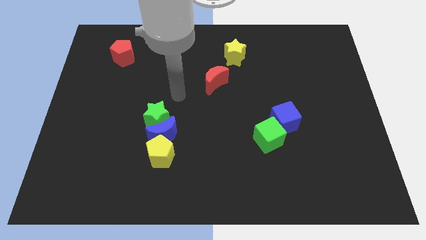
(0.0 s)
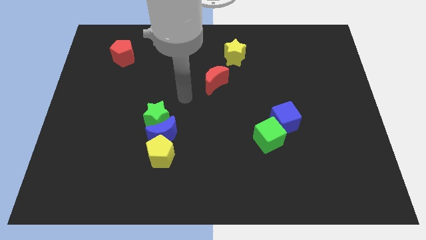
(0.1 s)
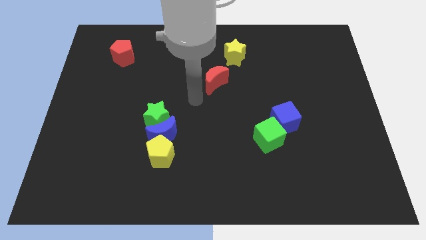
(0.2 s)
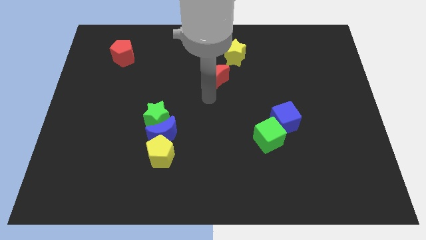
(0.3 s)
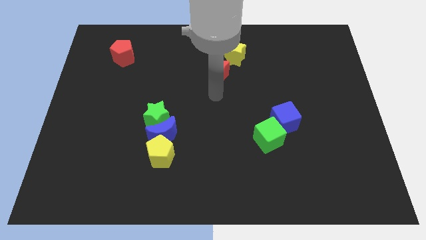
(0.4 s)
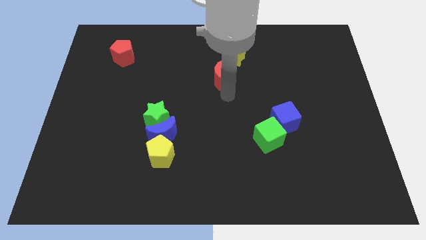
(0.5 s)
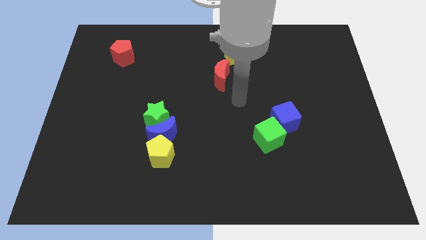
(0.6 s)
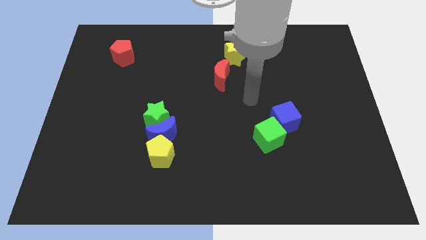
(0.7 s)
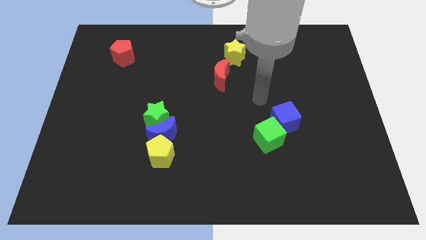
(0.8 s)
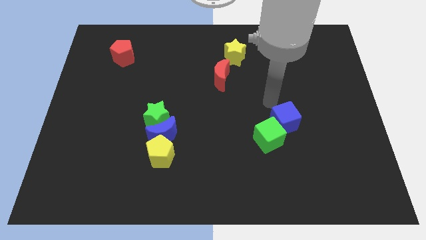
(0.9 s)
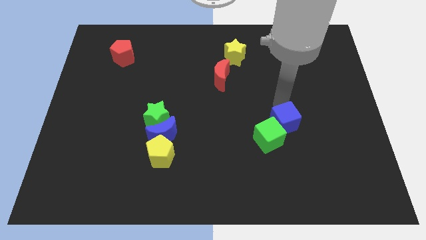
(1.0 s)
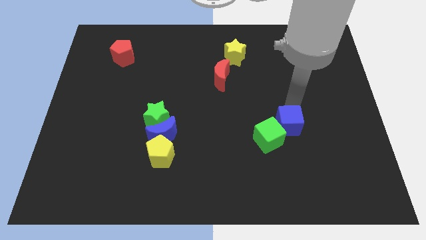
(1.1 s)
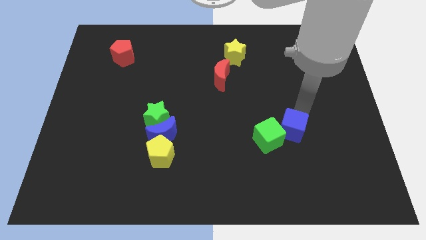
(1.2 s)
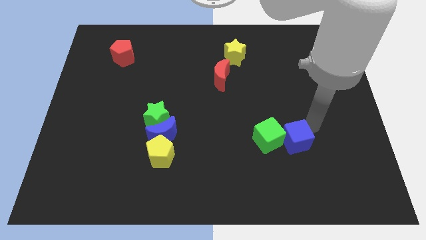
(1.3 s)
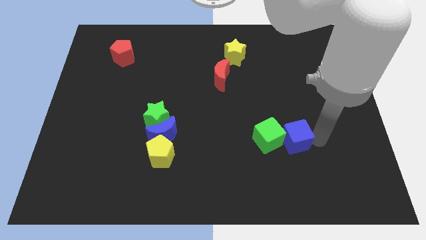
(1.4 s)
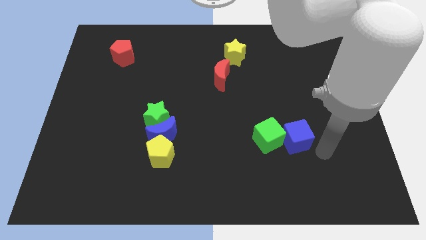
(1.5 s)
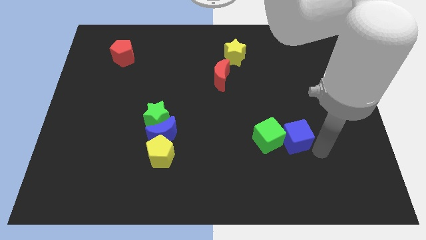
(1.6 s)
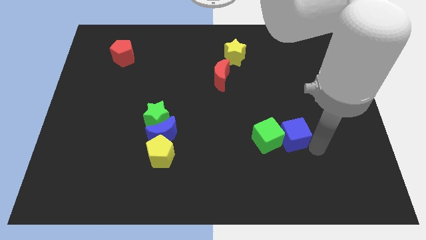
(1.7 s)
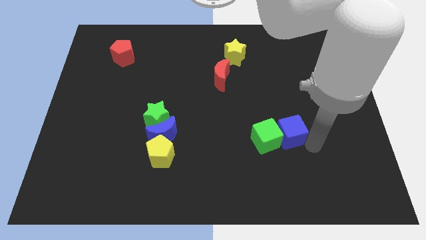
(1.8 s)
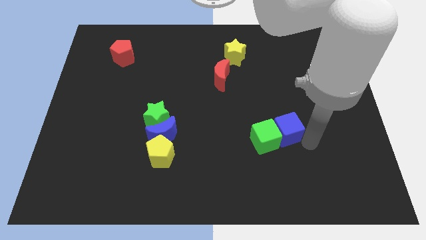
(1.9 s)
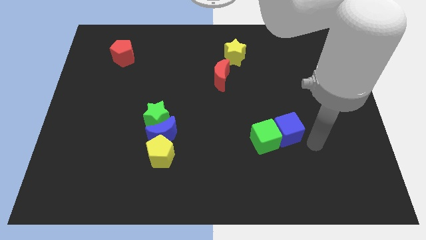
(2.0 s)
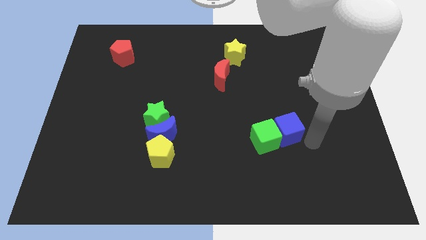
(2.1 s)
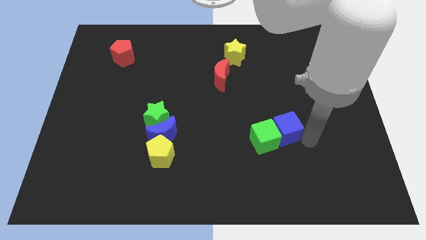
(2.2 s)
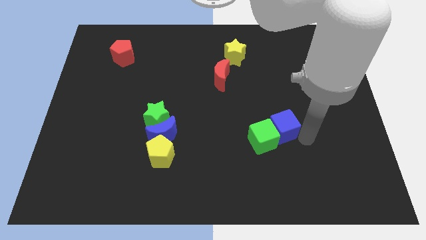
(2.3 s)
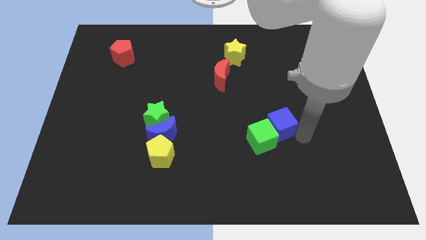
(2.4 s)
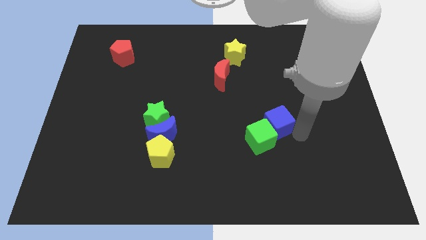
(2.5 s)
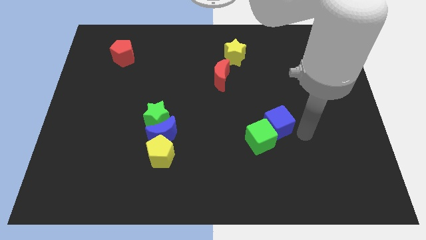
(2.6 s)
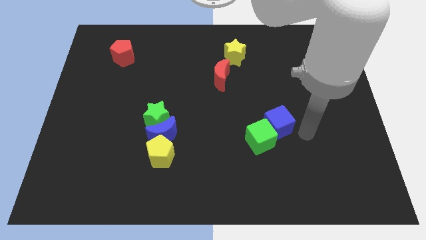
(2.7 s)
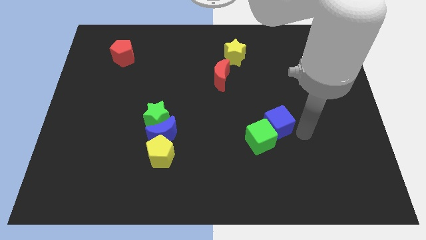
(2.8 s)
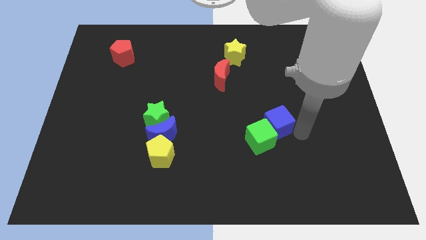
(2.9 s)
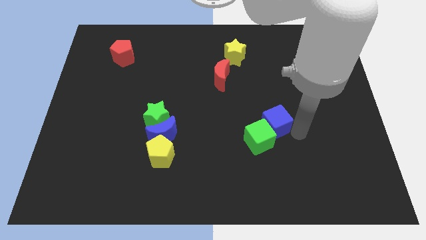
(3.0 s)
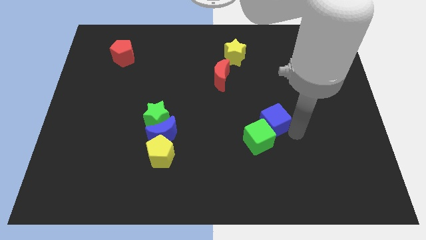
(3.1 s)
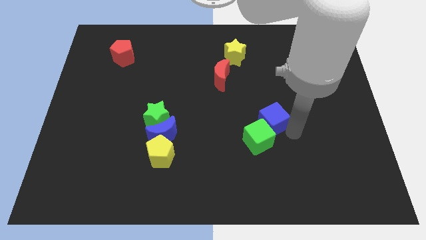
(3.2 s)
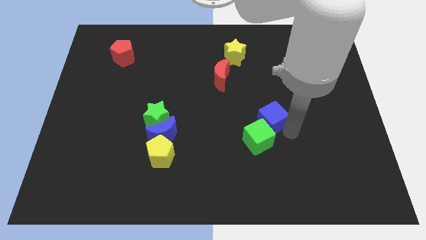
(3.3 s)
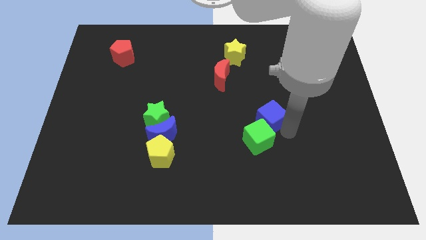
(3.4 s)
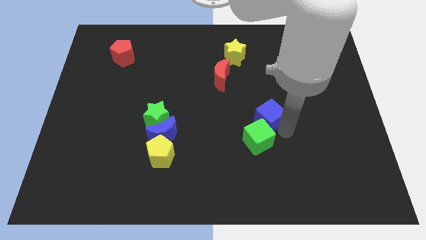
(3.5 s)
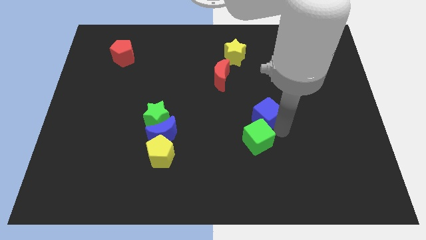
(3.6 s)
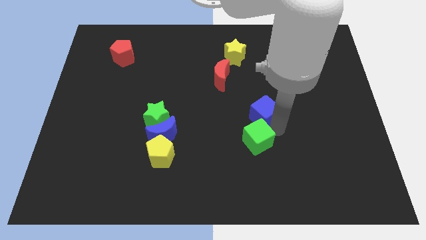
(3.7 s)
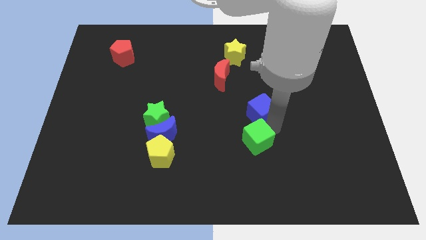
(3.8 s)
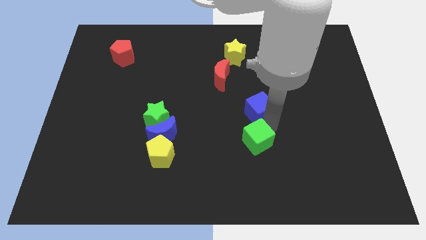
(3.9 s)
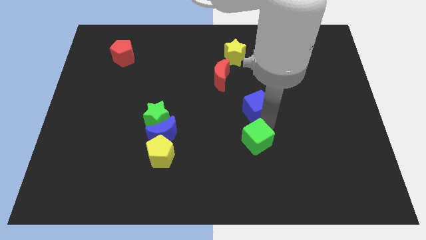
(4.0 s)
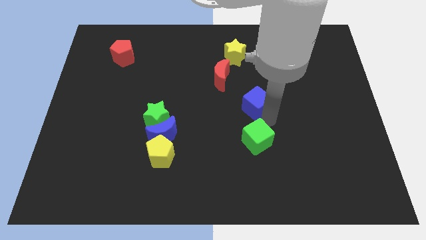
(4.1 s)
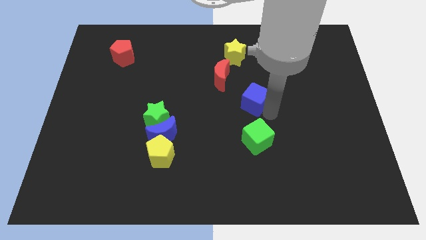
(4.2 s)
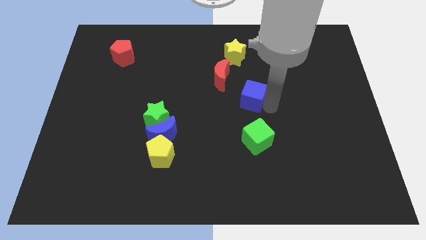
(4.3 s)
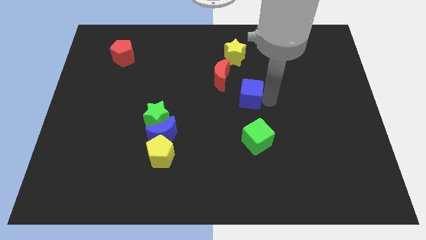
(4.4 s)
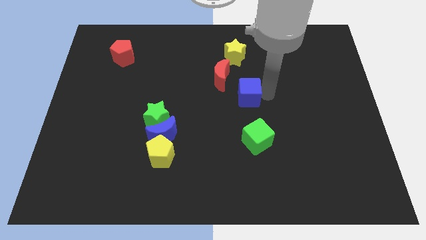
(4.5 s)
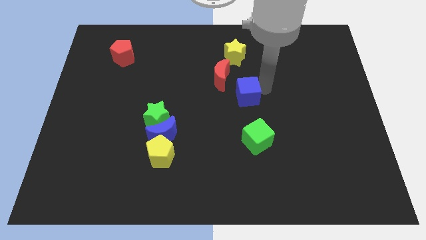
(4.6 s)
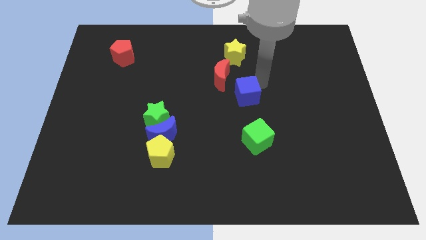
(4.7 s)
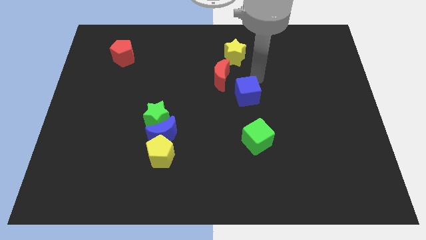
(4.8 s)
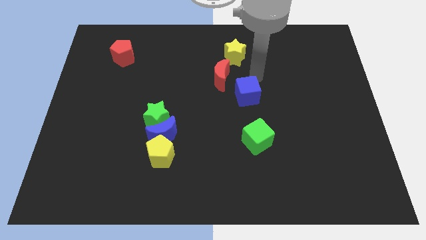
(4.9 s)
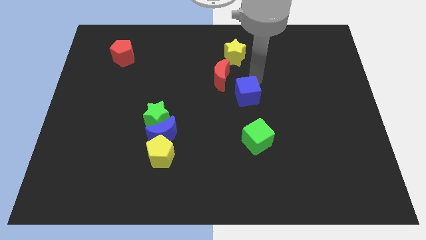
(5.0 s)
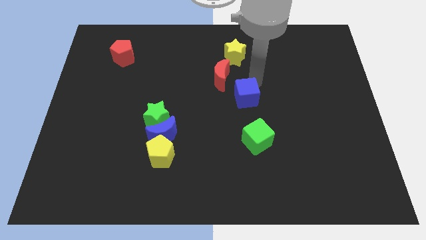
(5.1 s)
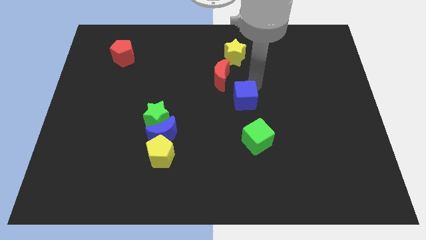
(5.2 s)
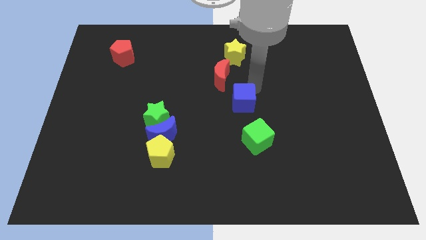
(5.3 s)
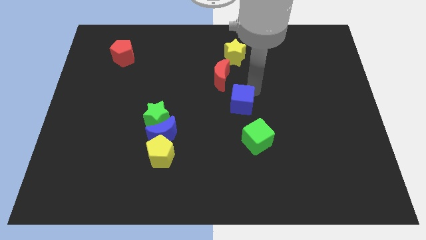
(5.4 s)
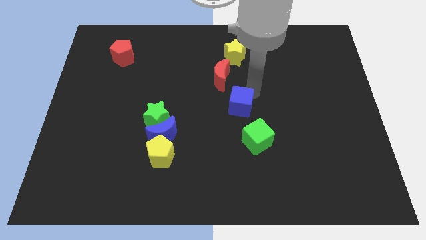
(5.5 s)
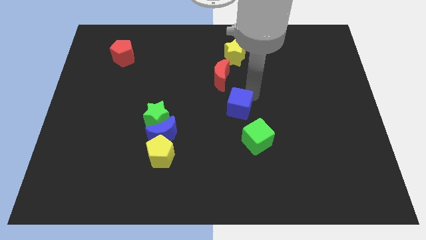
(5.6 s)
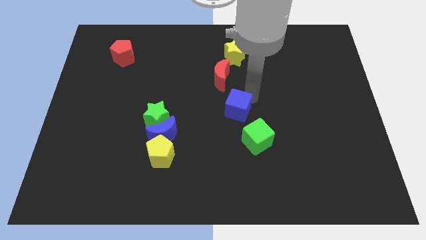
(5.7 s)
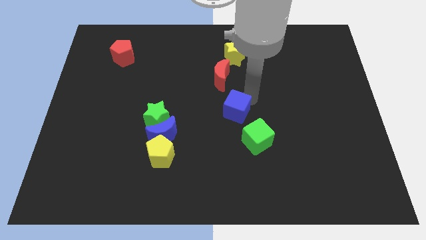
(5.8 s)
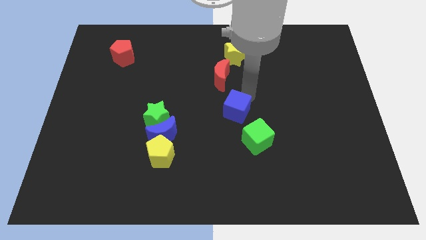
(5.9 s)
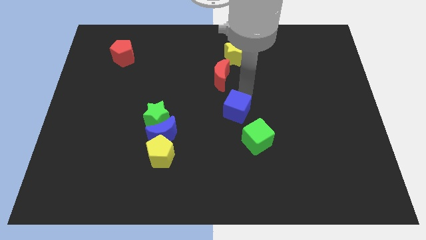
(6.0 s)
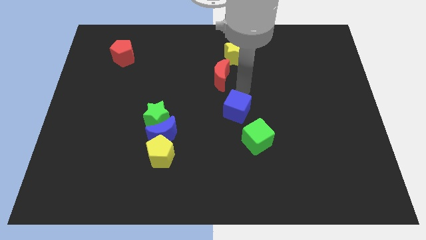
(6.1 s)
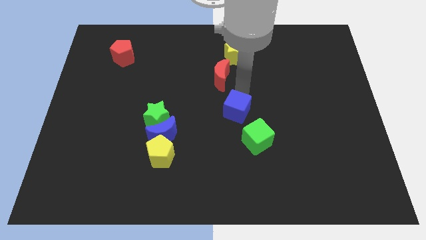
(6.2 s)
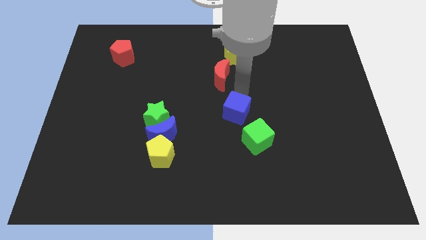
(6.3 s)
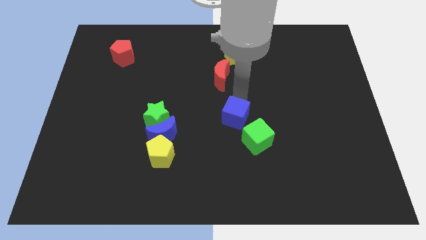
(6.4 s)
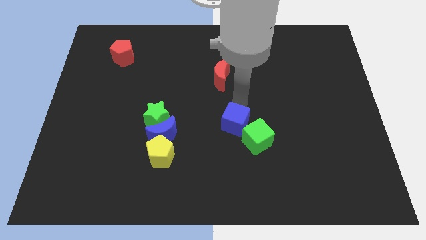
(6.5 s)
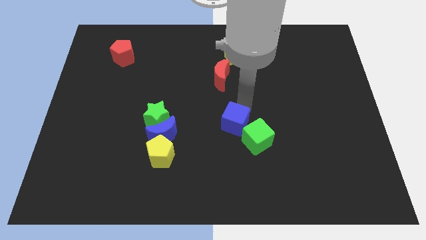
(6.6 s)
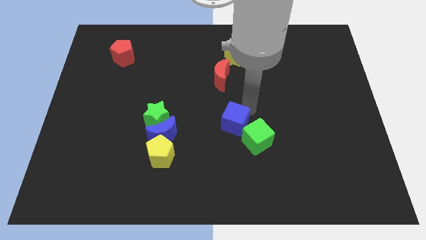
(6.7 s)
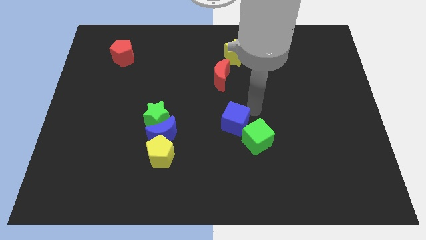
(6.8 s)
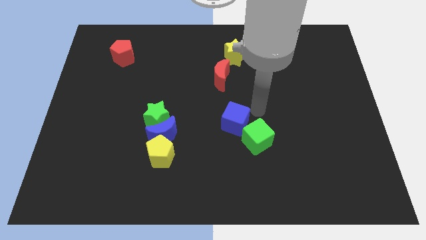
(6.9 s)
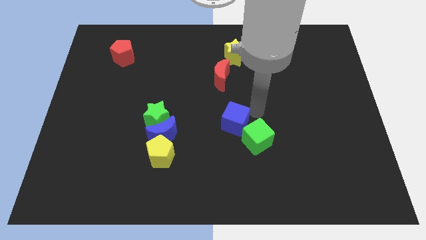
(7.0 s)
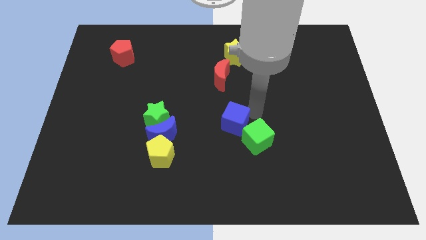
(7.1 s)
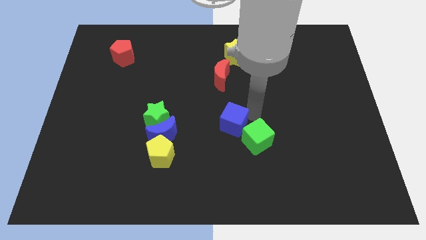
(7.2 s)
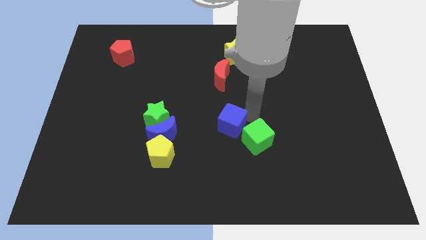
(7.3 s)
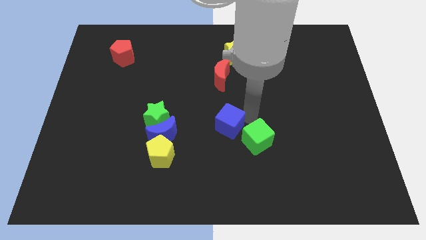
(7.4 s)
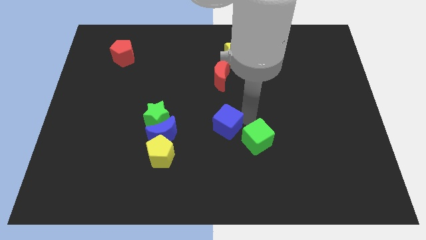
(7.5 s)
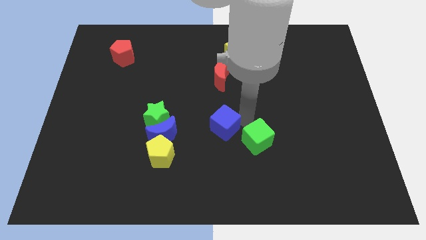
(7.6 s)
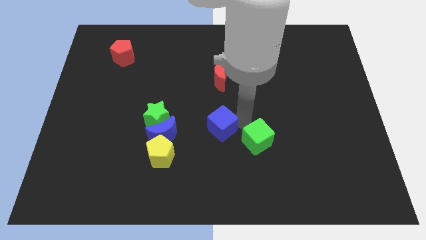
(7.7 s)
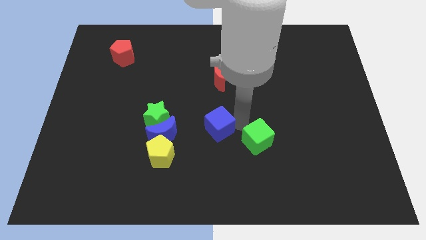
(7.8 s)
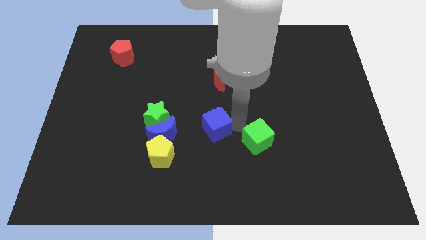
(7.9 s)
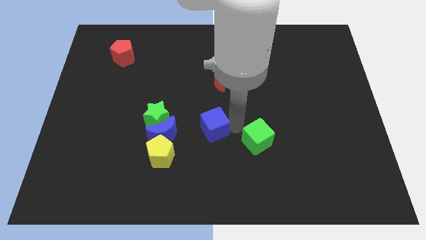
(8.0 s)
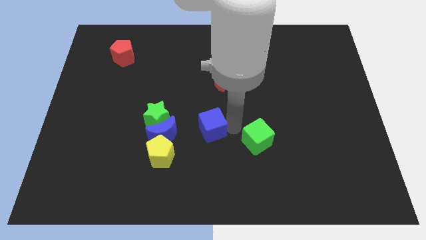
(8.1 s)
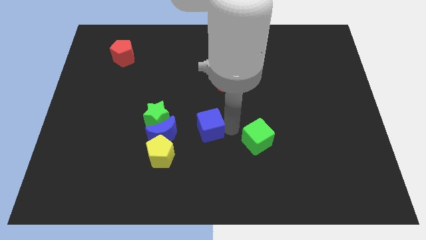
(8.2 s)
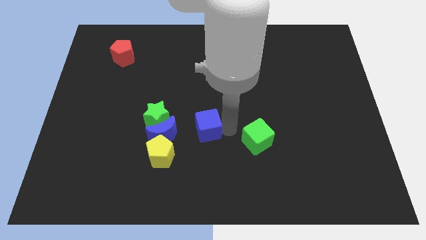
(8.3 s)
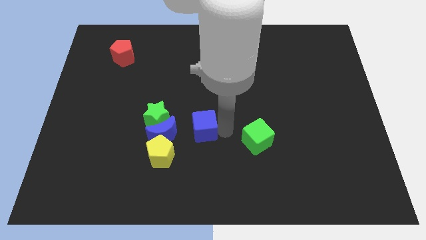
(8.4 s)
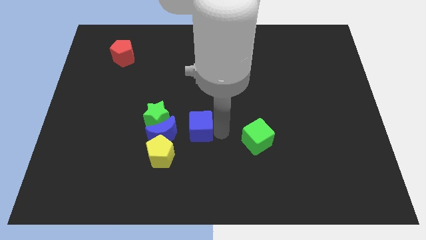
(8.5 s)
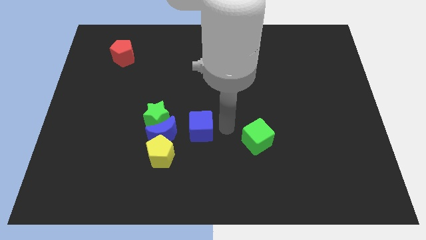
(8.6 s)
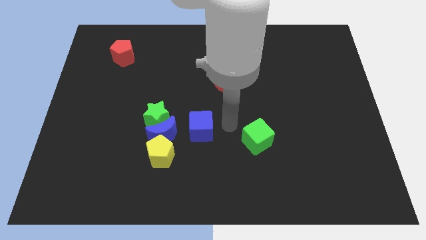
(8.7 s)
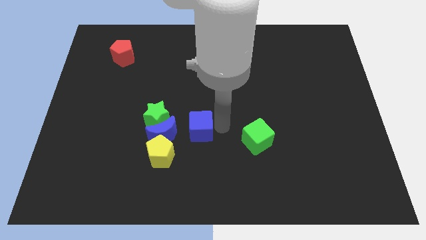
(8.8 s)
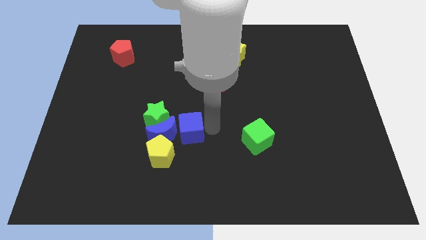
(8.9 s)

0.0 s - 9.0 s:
move the blue cube towards the blue moon
